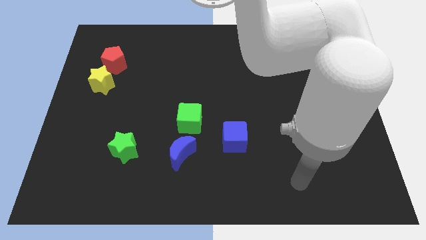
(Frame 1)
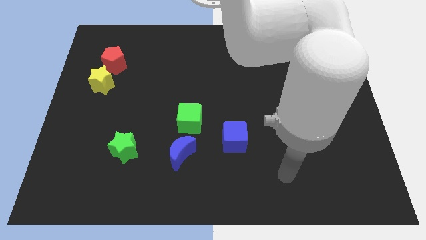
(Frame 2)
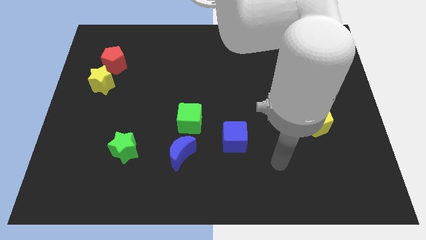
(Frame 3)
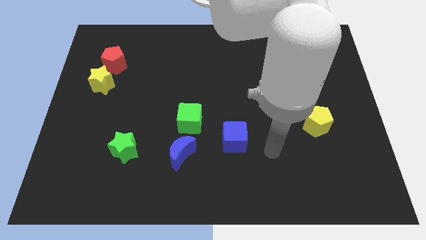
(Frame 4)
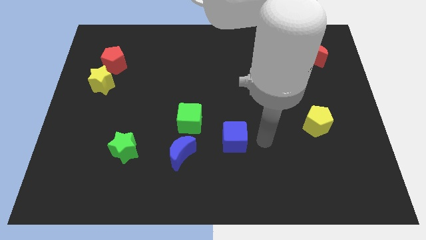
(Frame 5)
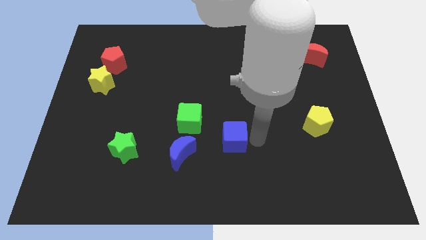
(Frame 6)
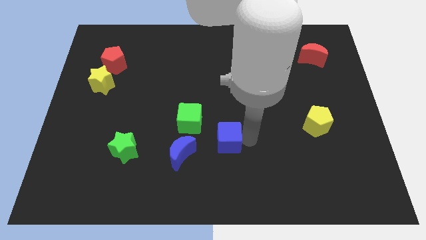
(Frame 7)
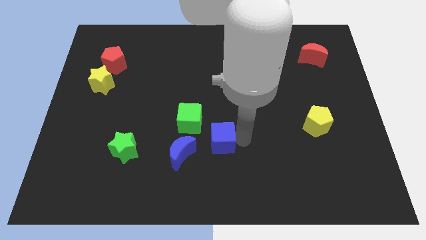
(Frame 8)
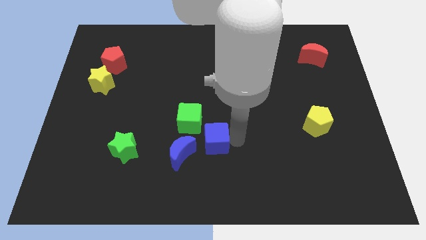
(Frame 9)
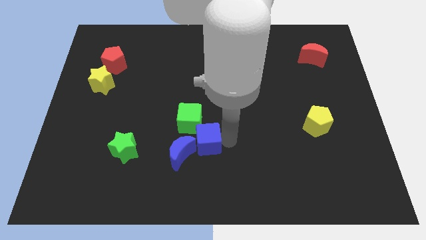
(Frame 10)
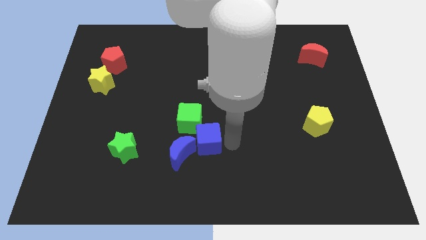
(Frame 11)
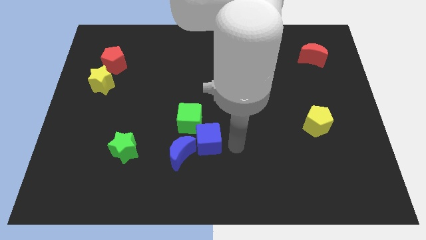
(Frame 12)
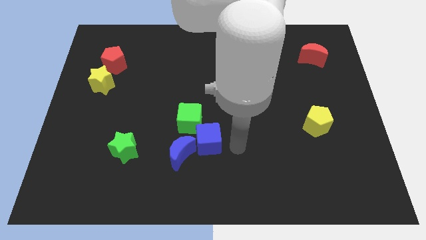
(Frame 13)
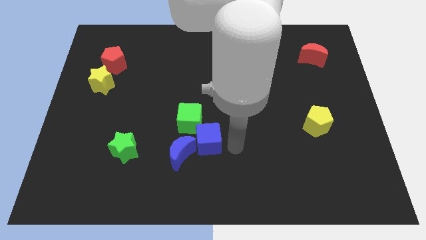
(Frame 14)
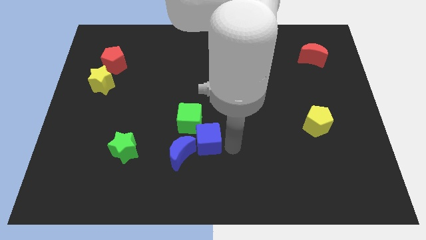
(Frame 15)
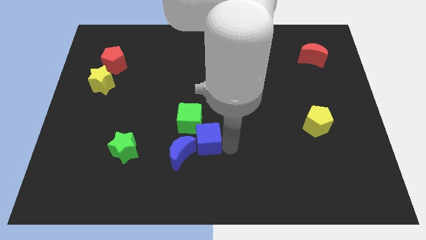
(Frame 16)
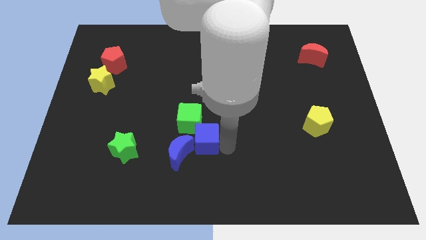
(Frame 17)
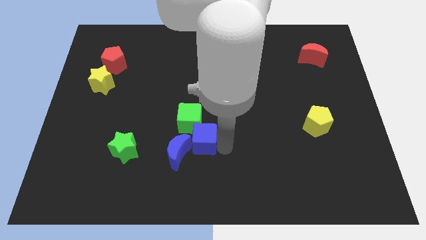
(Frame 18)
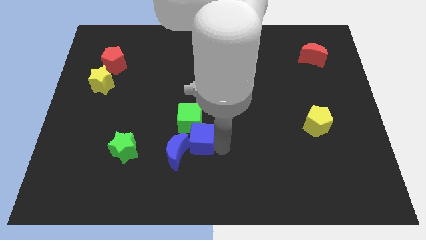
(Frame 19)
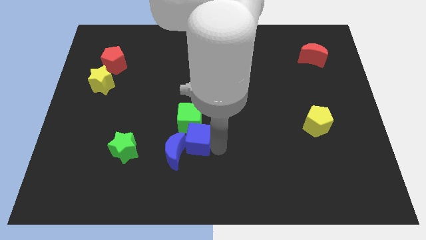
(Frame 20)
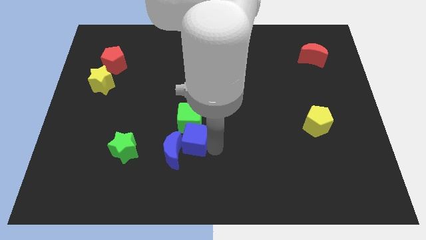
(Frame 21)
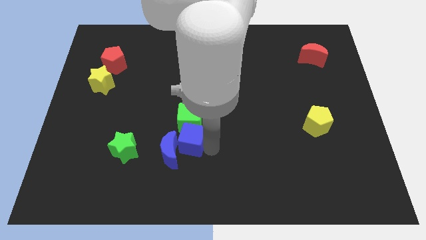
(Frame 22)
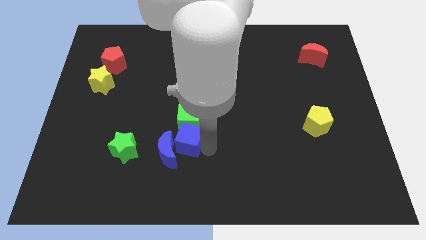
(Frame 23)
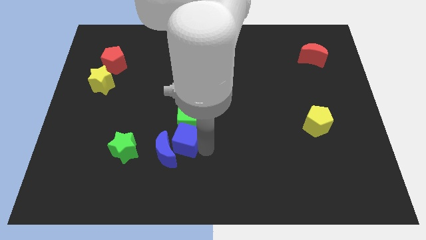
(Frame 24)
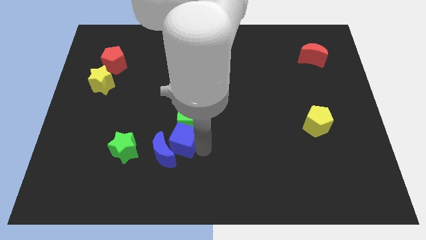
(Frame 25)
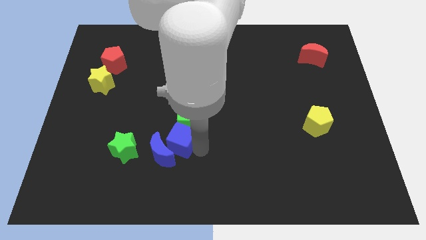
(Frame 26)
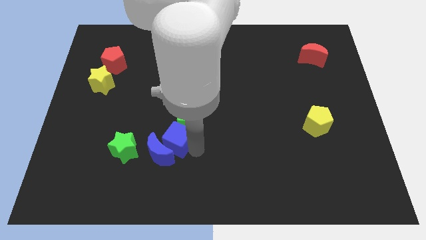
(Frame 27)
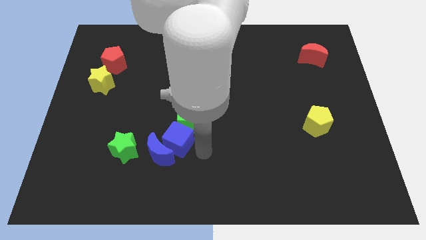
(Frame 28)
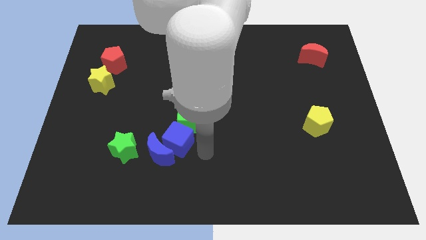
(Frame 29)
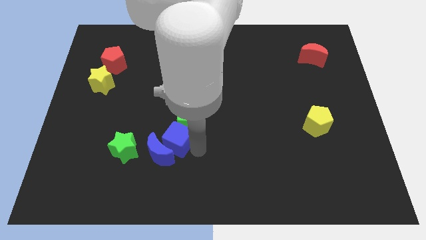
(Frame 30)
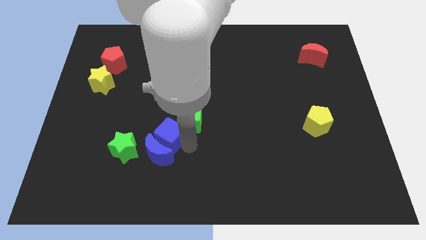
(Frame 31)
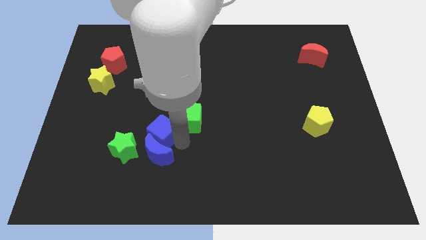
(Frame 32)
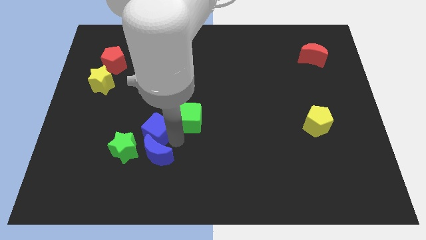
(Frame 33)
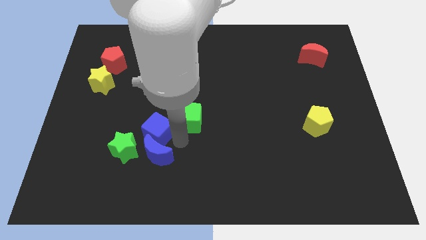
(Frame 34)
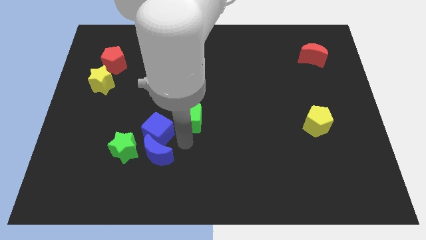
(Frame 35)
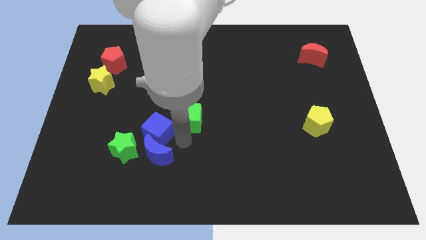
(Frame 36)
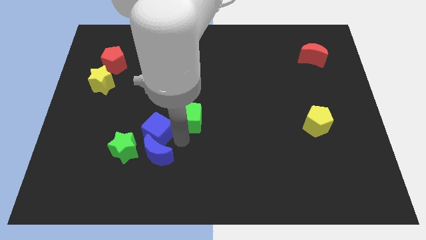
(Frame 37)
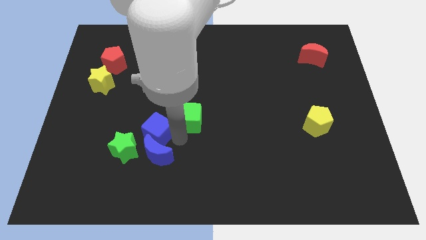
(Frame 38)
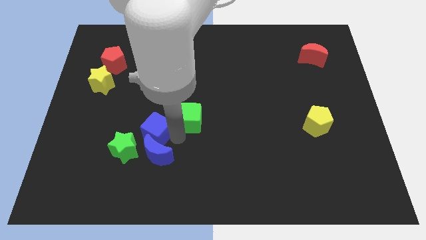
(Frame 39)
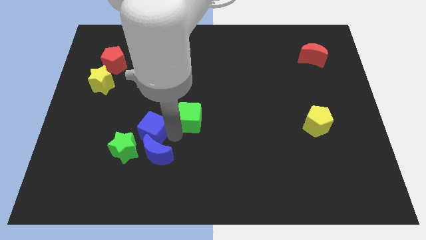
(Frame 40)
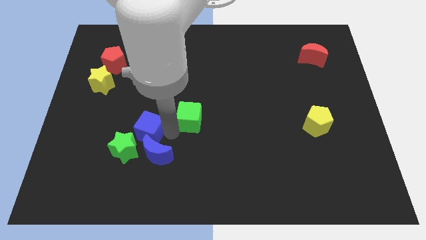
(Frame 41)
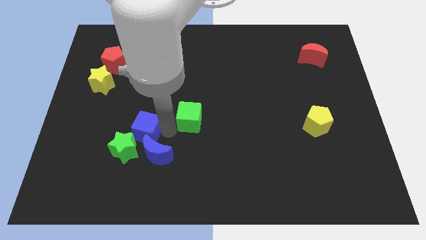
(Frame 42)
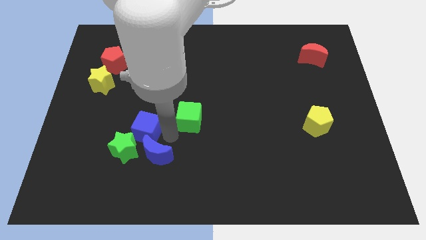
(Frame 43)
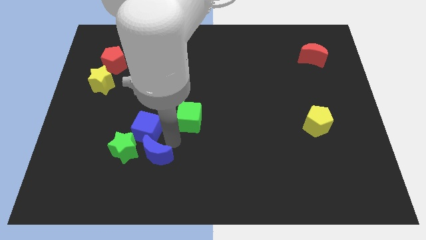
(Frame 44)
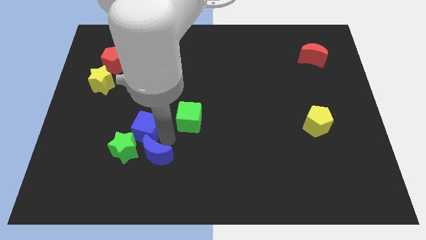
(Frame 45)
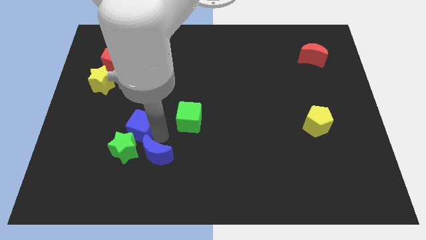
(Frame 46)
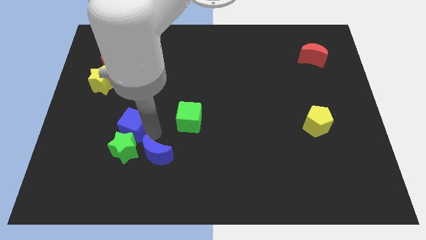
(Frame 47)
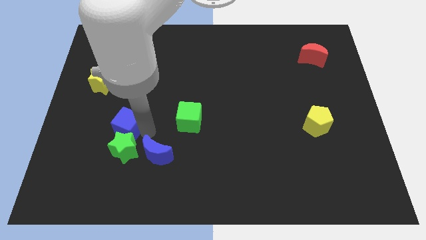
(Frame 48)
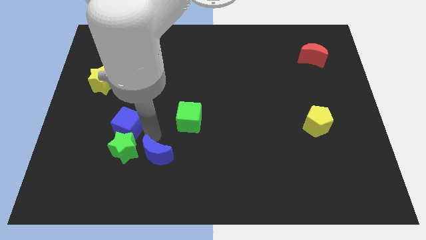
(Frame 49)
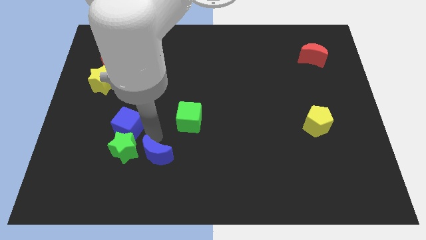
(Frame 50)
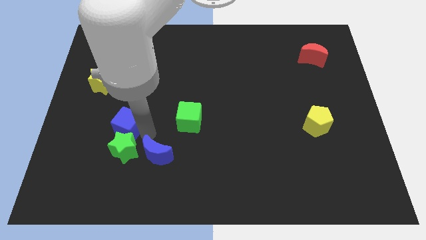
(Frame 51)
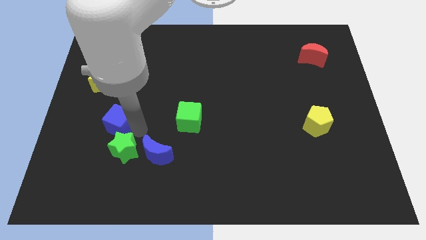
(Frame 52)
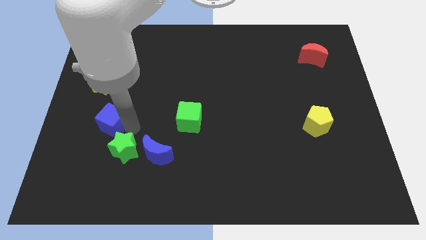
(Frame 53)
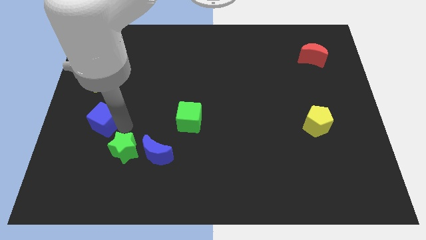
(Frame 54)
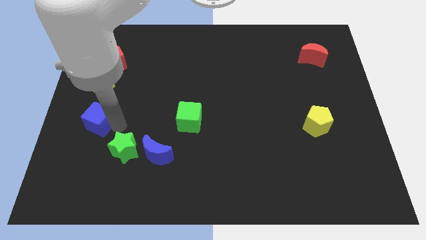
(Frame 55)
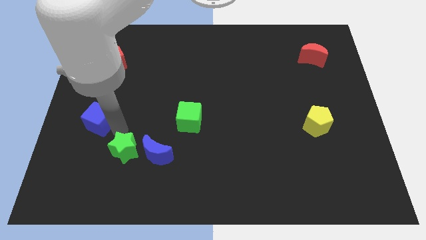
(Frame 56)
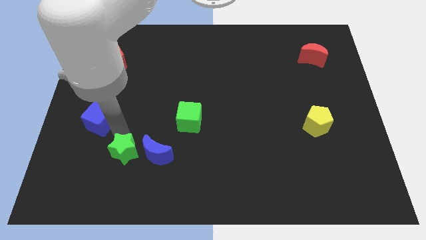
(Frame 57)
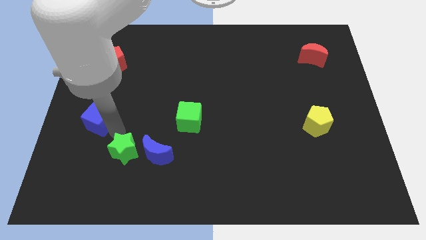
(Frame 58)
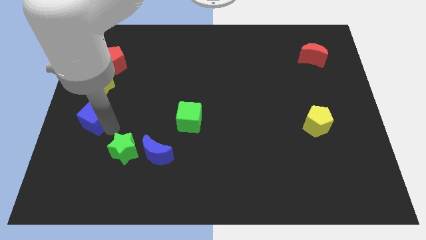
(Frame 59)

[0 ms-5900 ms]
push the blue cube to the center left

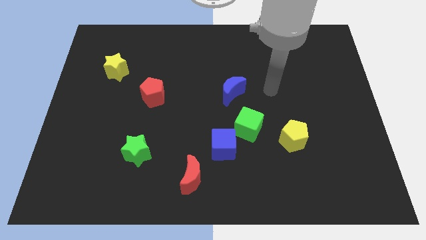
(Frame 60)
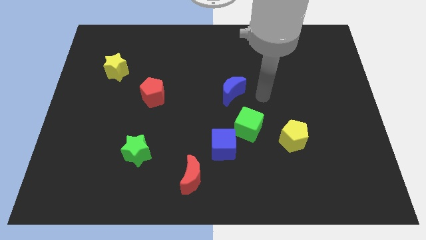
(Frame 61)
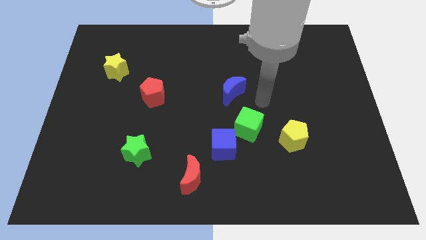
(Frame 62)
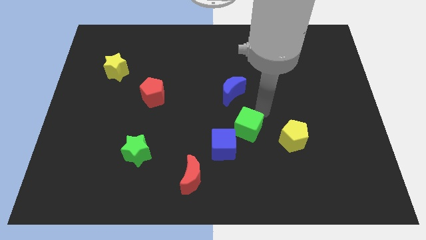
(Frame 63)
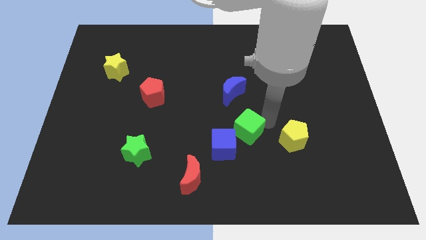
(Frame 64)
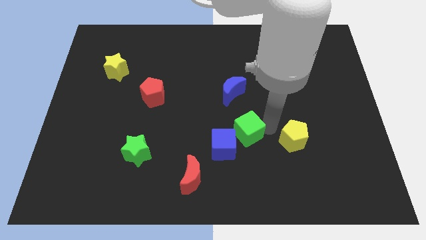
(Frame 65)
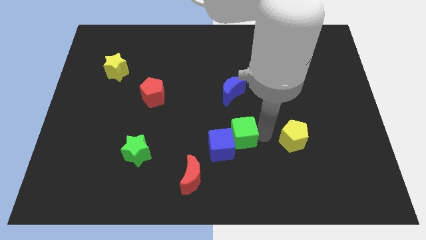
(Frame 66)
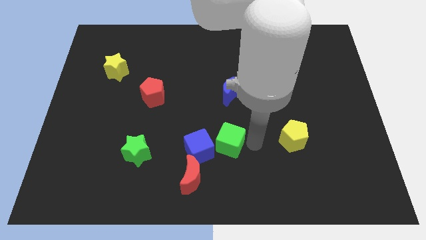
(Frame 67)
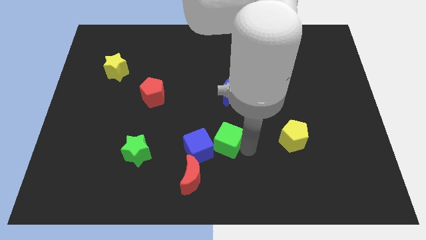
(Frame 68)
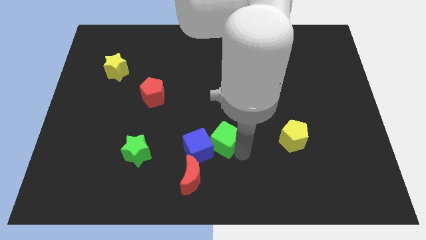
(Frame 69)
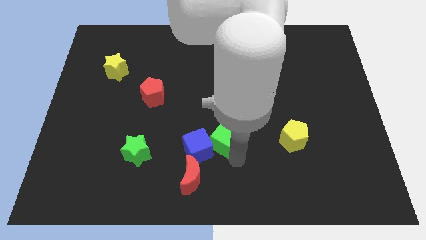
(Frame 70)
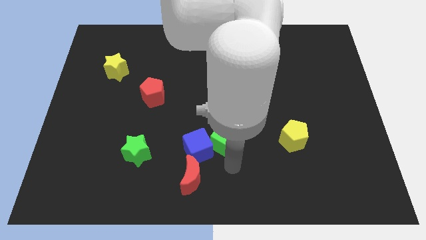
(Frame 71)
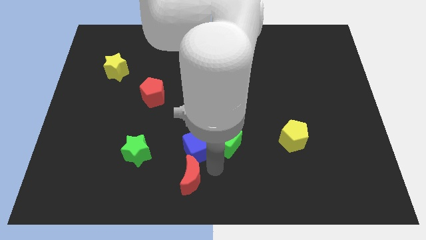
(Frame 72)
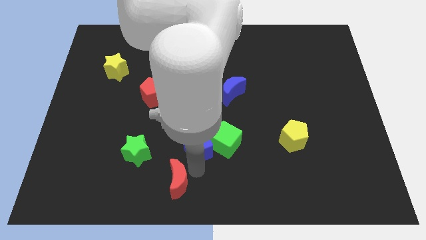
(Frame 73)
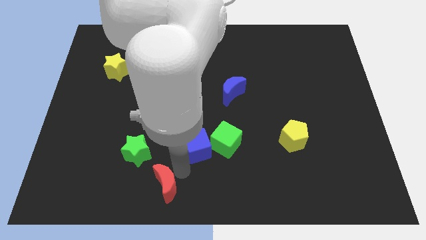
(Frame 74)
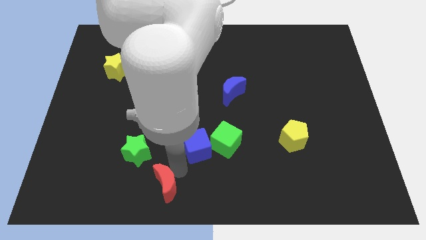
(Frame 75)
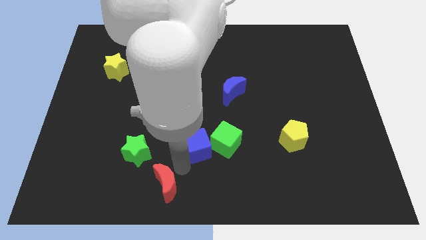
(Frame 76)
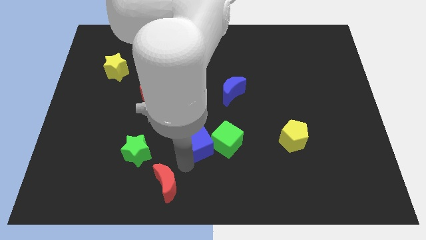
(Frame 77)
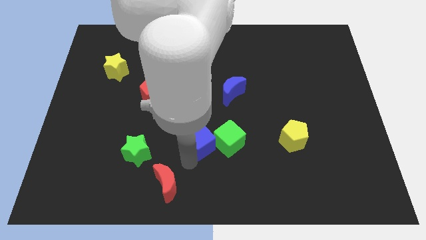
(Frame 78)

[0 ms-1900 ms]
slide the blue cube to the middle
